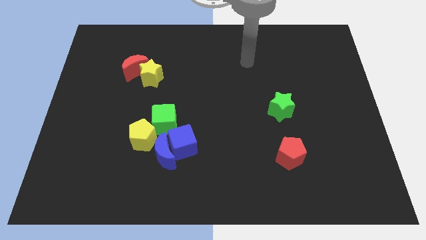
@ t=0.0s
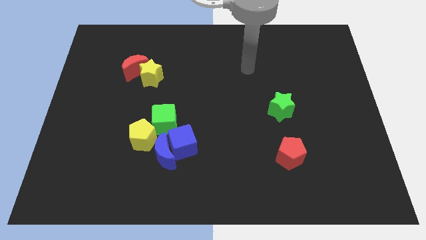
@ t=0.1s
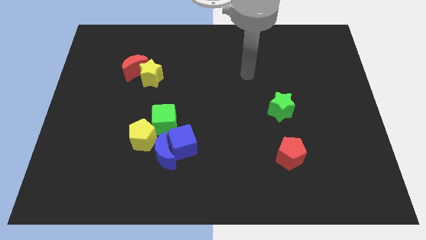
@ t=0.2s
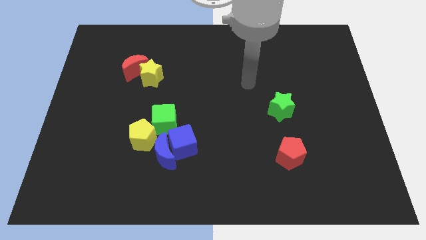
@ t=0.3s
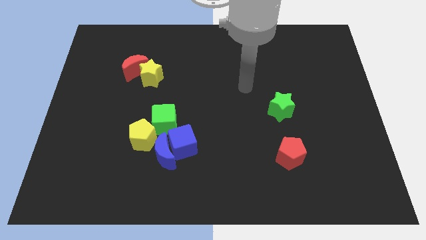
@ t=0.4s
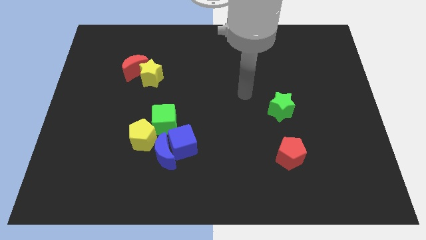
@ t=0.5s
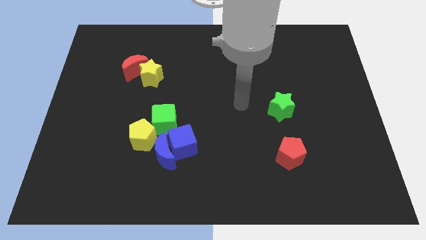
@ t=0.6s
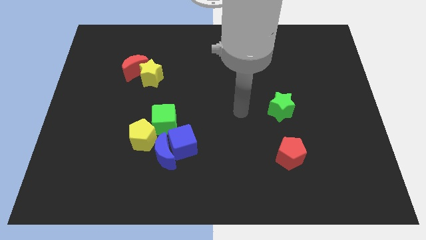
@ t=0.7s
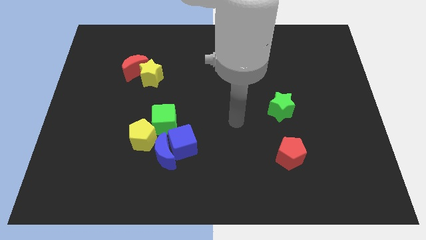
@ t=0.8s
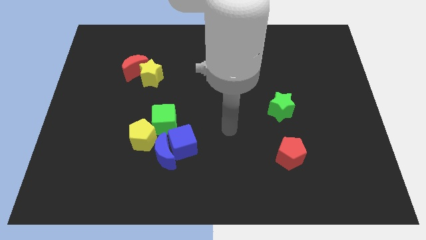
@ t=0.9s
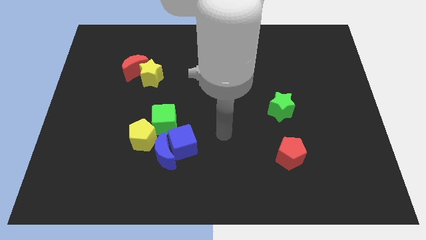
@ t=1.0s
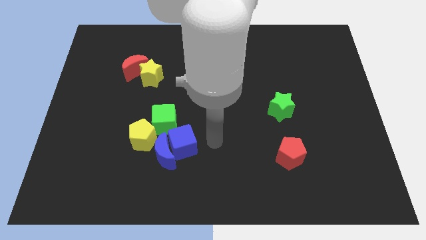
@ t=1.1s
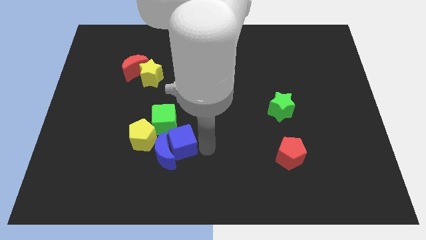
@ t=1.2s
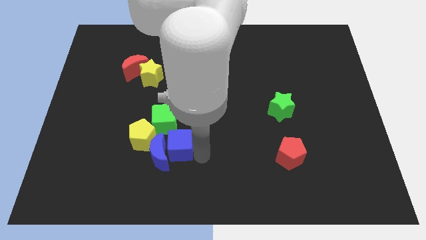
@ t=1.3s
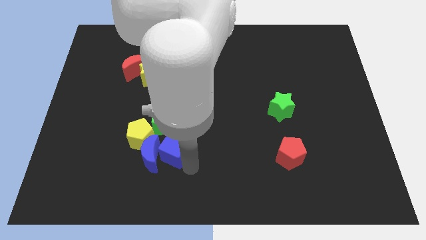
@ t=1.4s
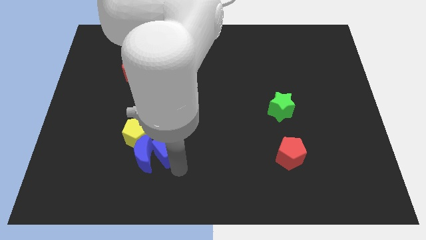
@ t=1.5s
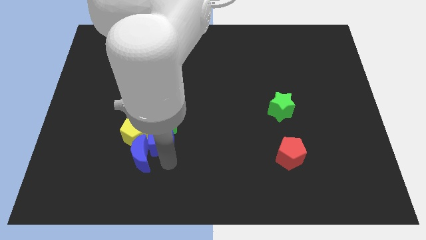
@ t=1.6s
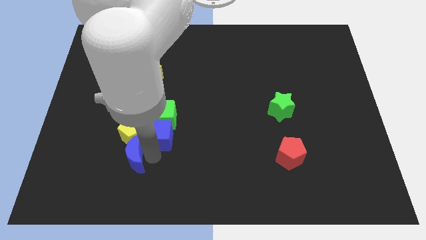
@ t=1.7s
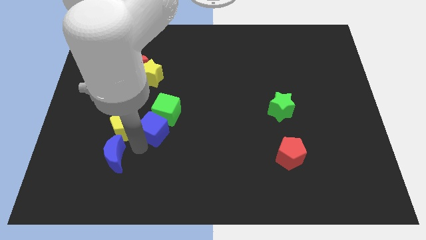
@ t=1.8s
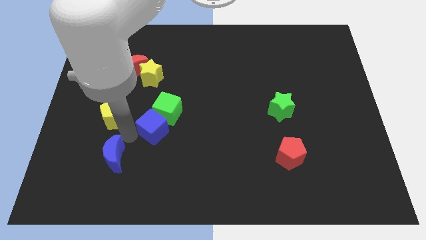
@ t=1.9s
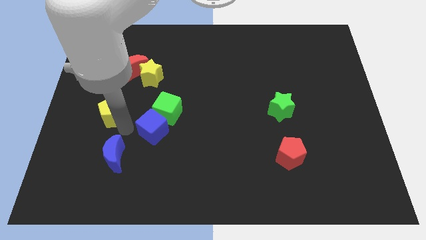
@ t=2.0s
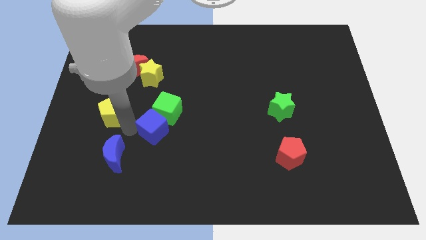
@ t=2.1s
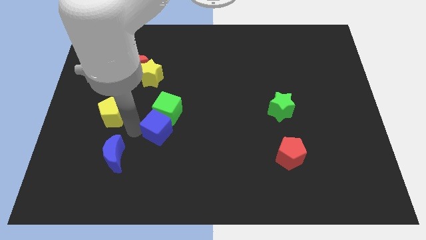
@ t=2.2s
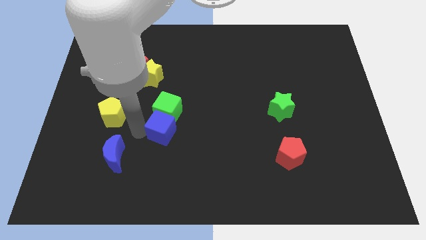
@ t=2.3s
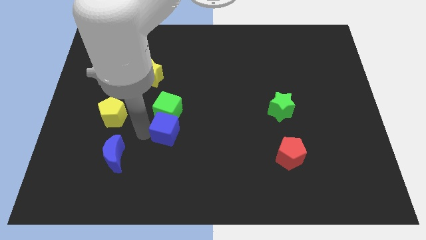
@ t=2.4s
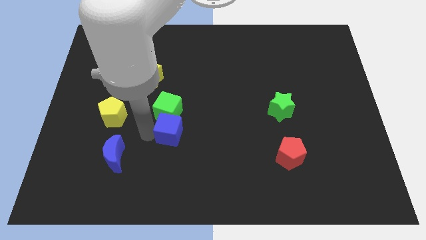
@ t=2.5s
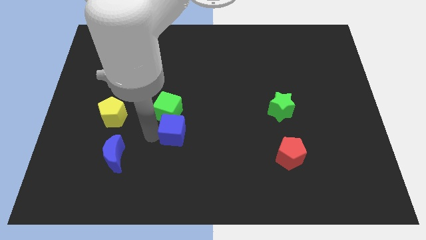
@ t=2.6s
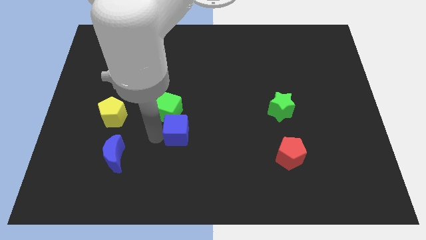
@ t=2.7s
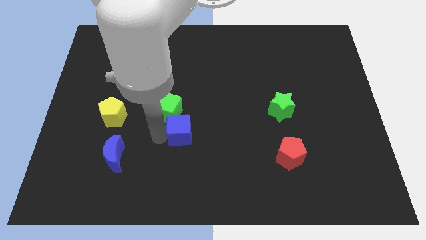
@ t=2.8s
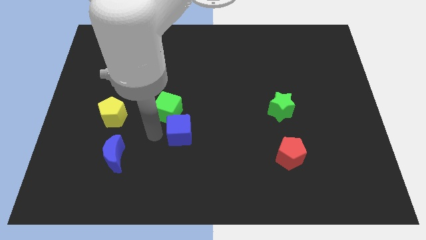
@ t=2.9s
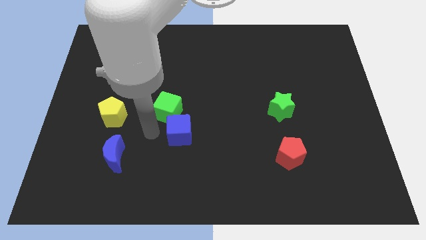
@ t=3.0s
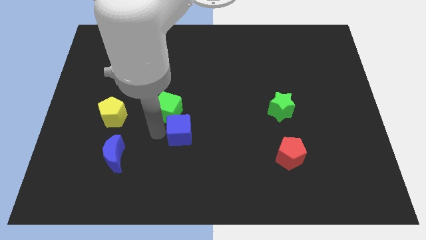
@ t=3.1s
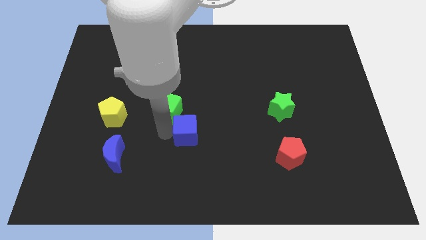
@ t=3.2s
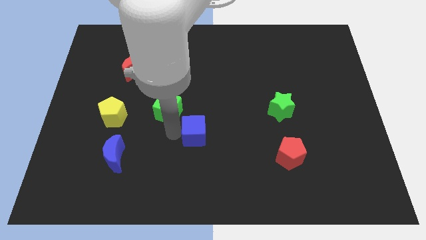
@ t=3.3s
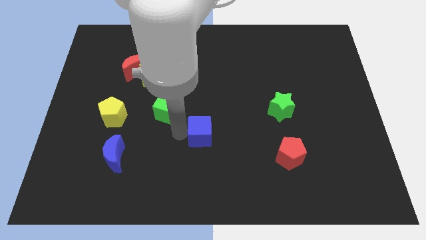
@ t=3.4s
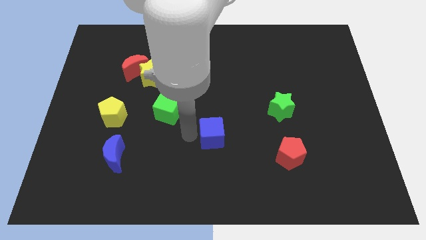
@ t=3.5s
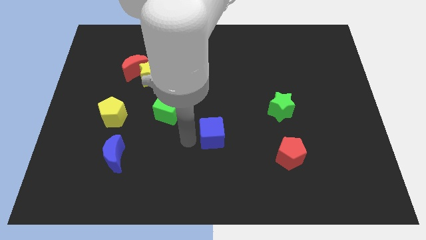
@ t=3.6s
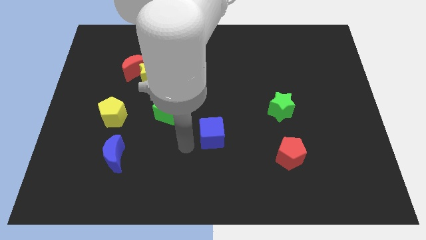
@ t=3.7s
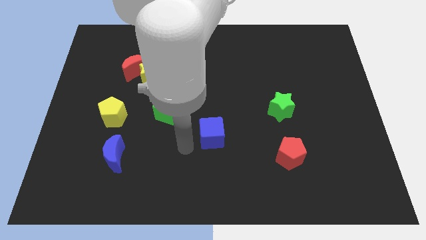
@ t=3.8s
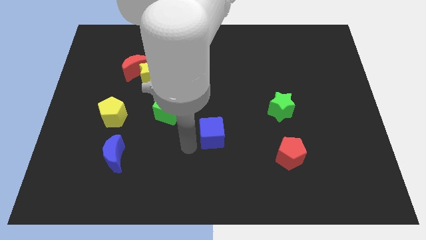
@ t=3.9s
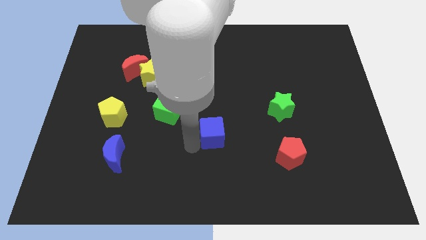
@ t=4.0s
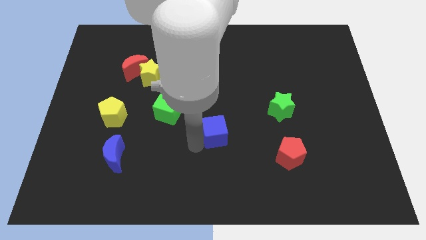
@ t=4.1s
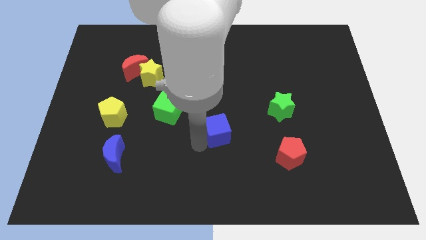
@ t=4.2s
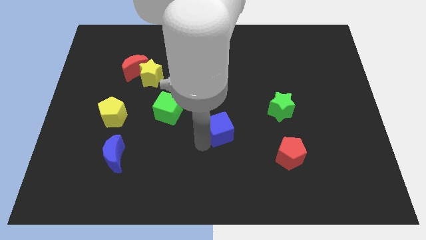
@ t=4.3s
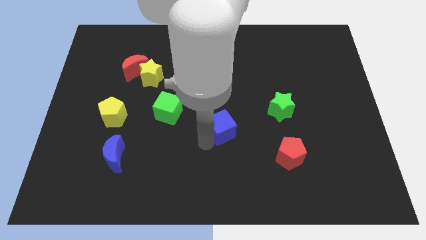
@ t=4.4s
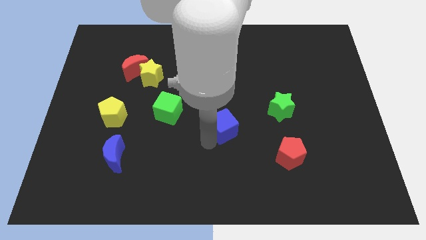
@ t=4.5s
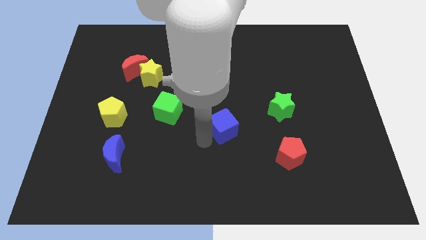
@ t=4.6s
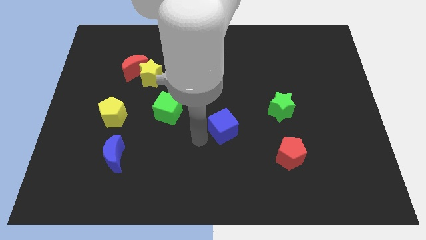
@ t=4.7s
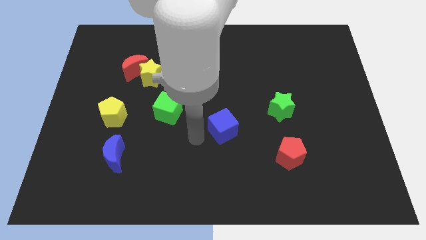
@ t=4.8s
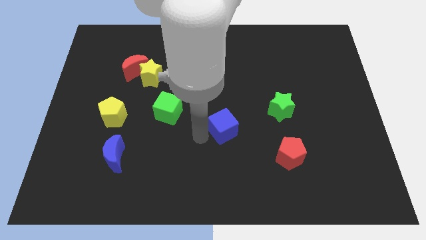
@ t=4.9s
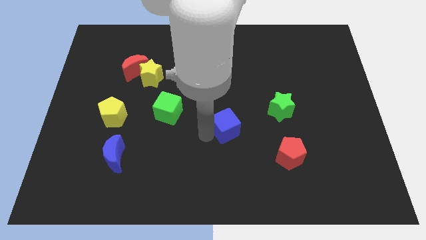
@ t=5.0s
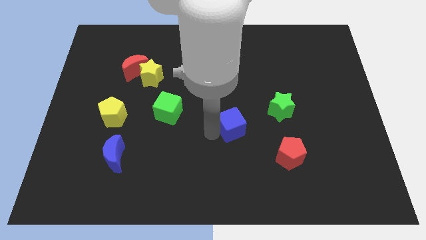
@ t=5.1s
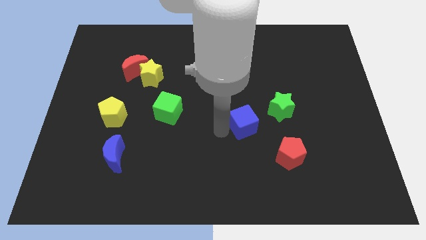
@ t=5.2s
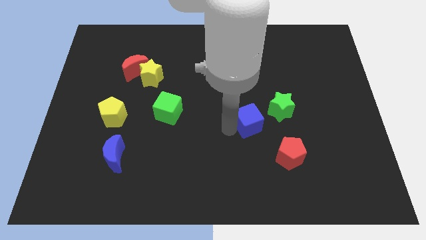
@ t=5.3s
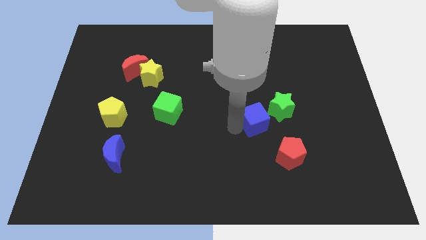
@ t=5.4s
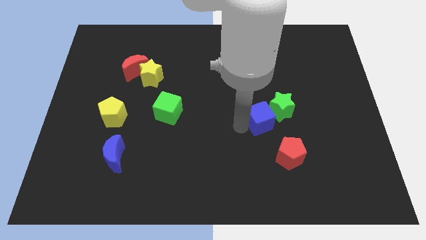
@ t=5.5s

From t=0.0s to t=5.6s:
push the blue cube next to the green star

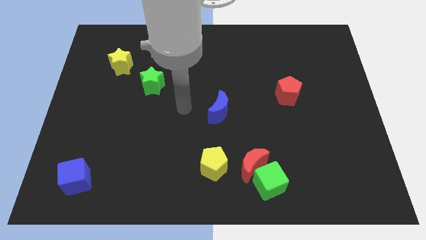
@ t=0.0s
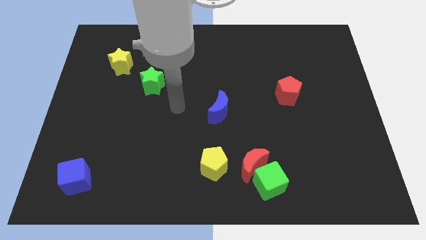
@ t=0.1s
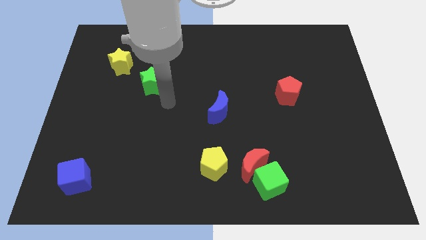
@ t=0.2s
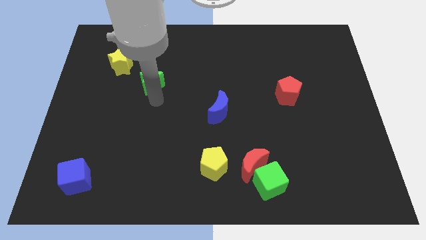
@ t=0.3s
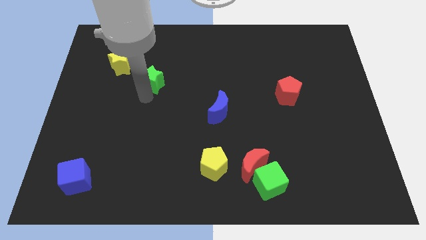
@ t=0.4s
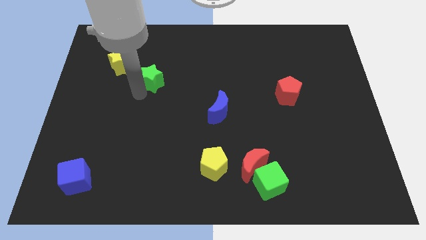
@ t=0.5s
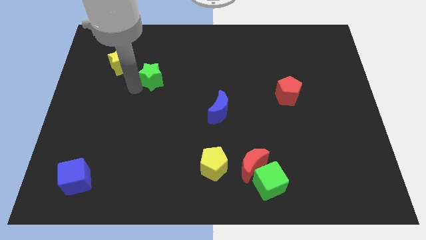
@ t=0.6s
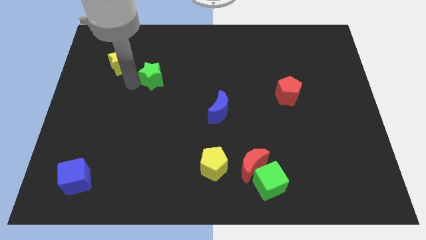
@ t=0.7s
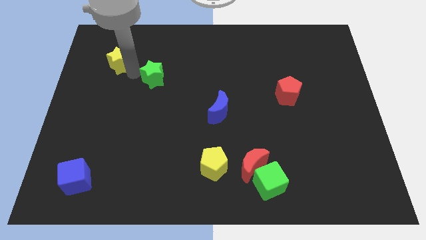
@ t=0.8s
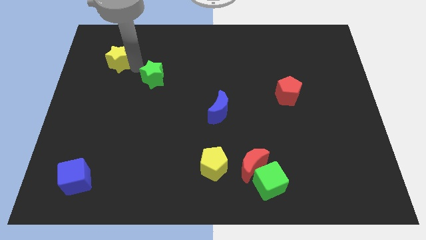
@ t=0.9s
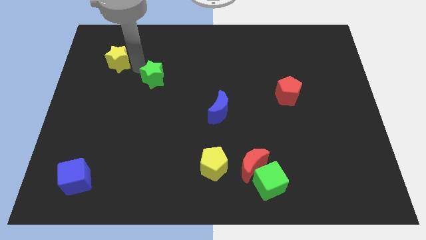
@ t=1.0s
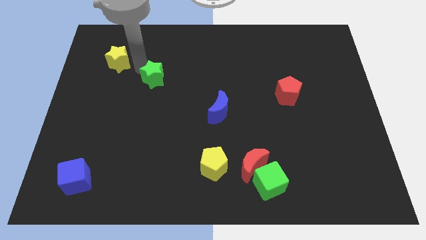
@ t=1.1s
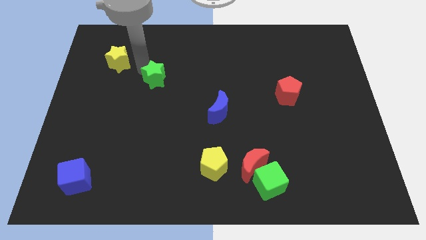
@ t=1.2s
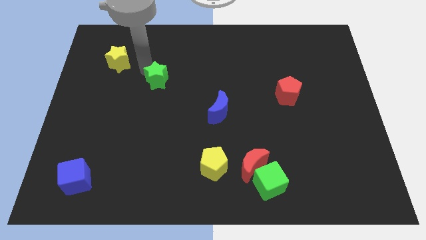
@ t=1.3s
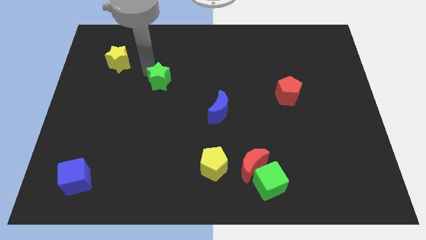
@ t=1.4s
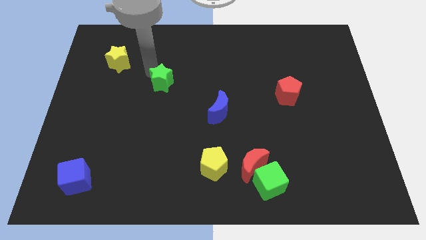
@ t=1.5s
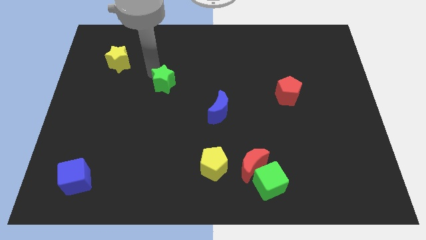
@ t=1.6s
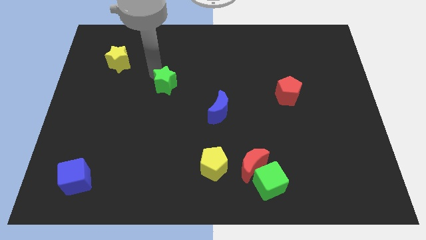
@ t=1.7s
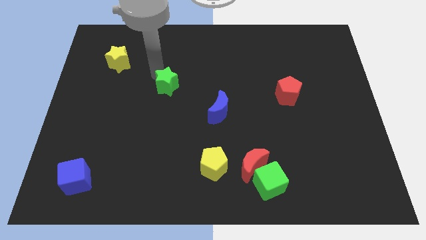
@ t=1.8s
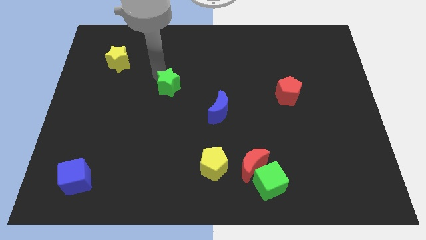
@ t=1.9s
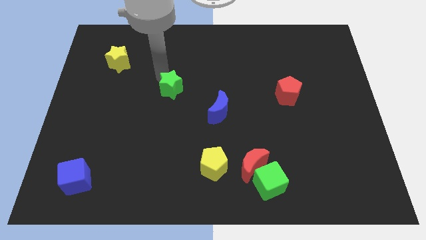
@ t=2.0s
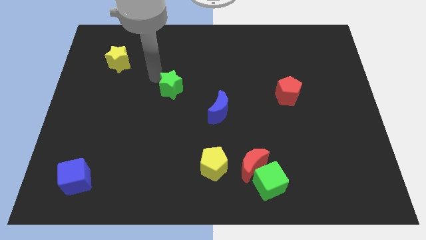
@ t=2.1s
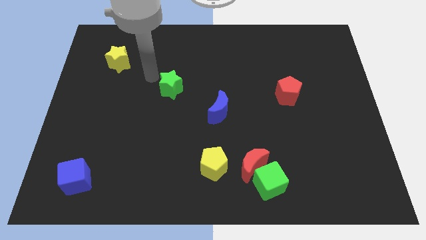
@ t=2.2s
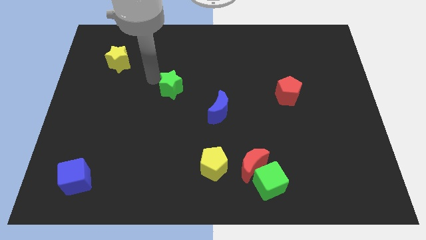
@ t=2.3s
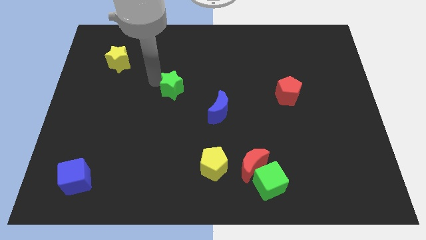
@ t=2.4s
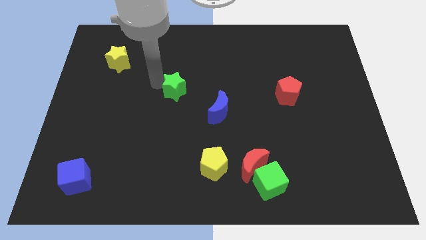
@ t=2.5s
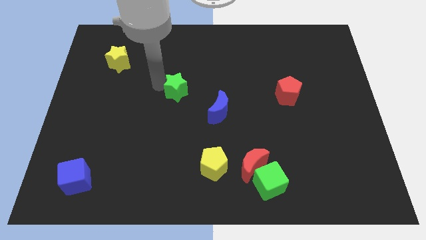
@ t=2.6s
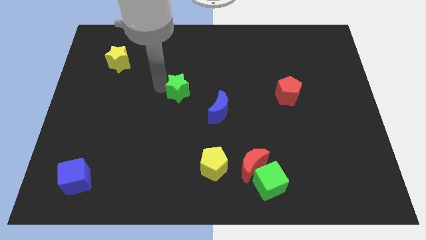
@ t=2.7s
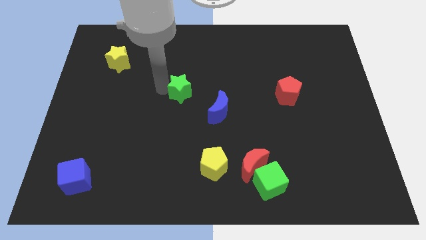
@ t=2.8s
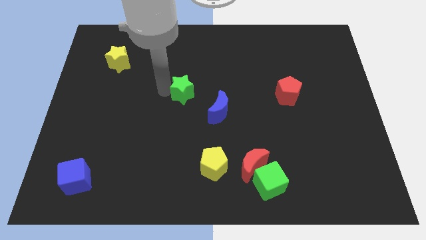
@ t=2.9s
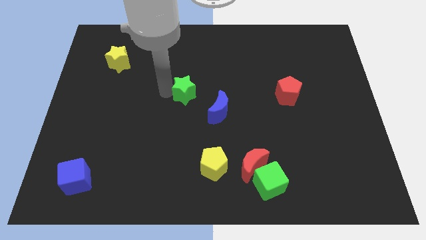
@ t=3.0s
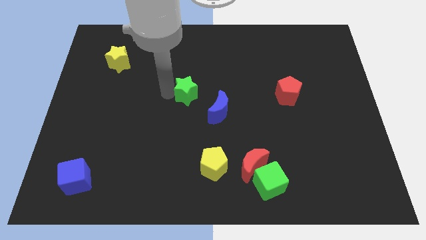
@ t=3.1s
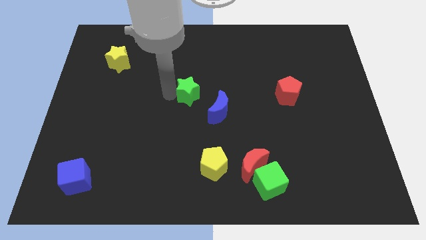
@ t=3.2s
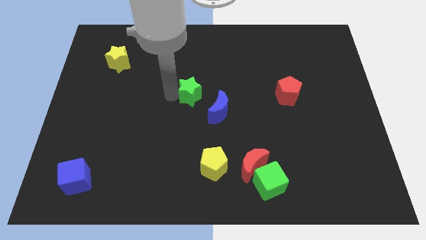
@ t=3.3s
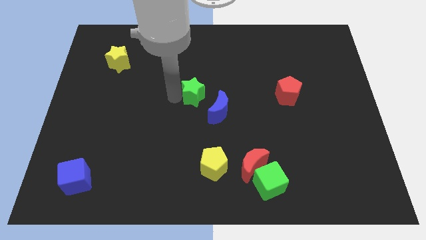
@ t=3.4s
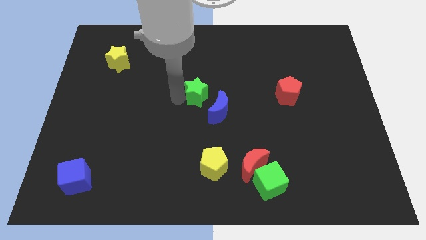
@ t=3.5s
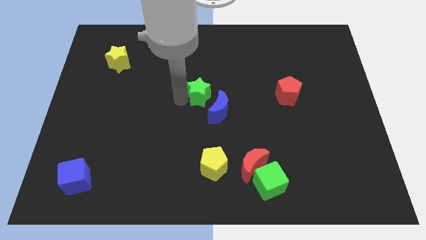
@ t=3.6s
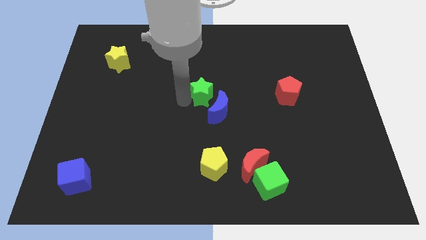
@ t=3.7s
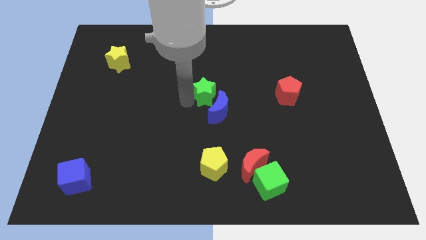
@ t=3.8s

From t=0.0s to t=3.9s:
slide the green star to the blue moon
